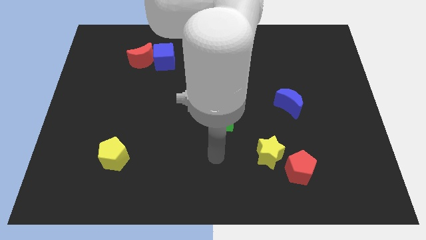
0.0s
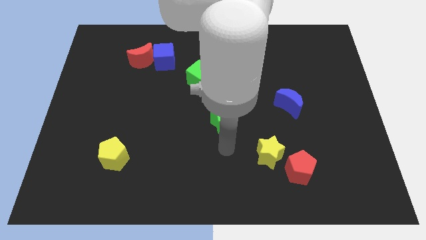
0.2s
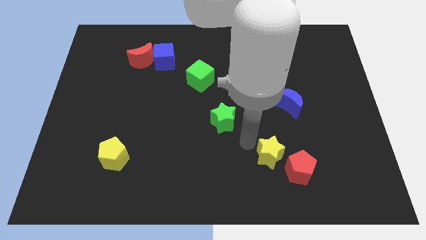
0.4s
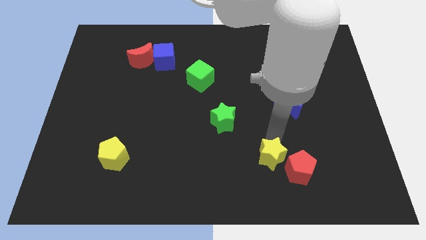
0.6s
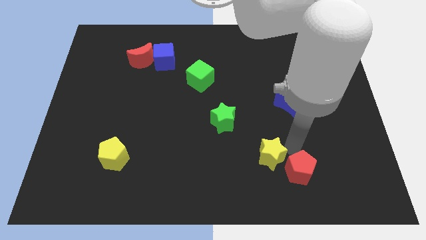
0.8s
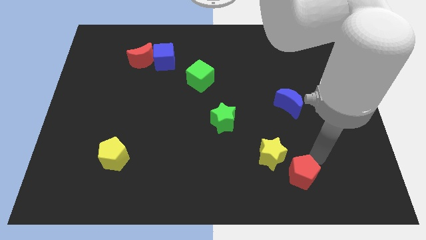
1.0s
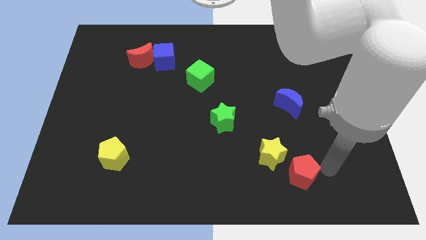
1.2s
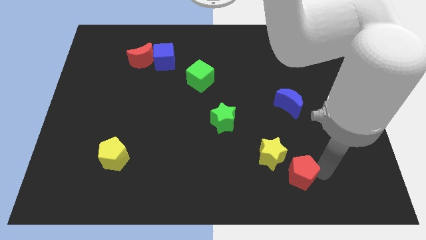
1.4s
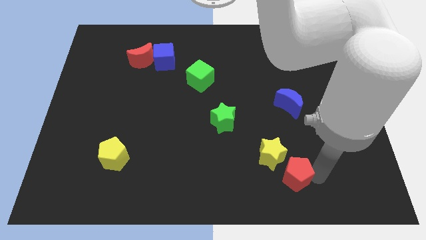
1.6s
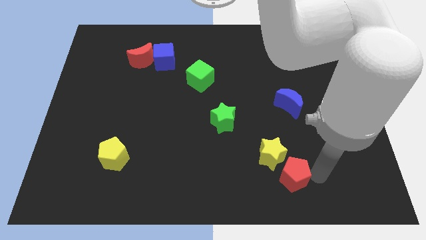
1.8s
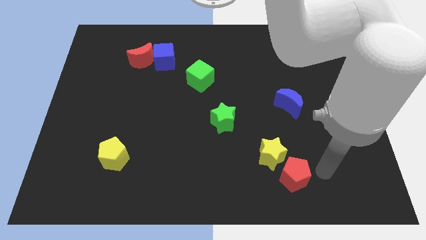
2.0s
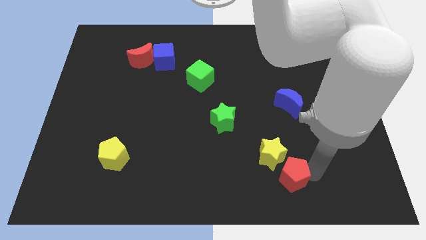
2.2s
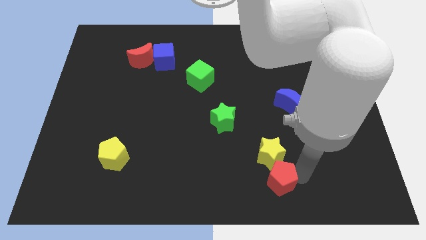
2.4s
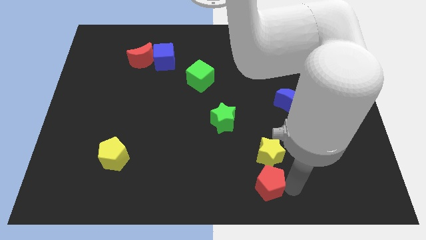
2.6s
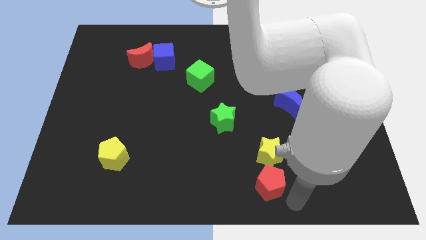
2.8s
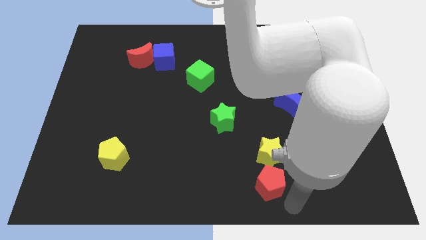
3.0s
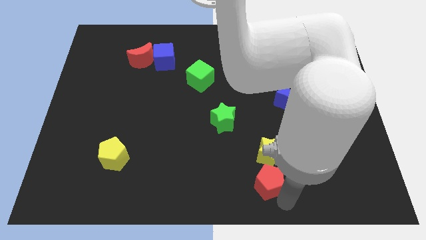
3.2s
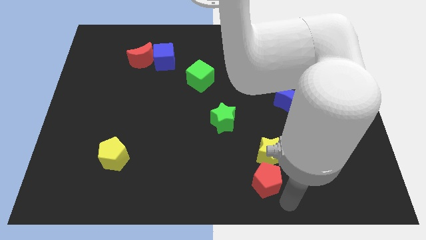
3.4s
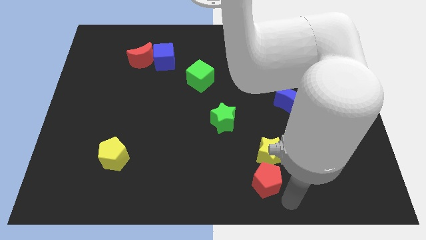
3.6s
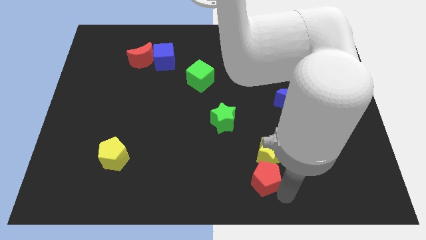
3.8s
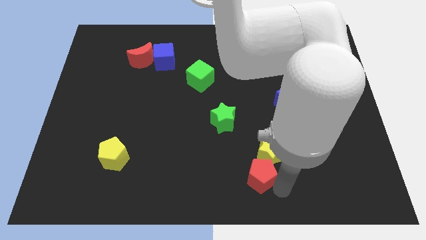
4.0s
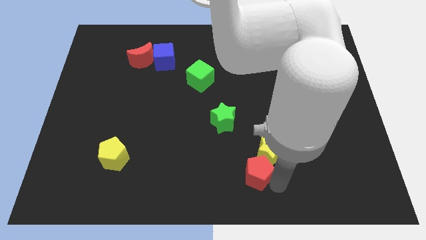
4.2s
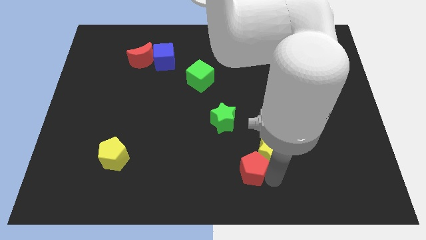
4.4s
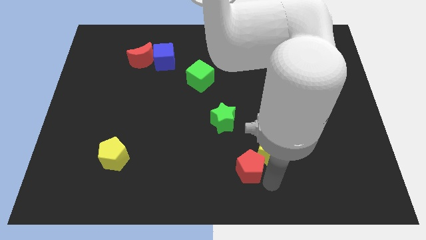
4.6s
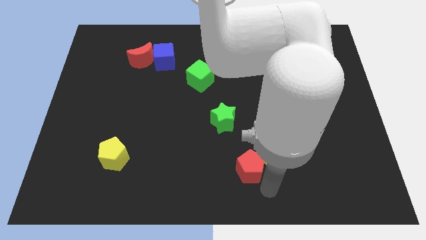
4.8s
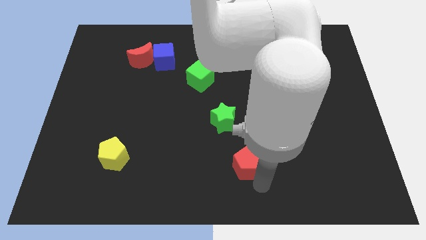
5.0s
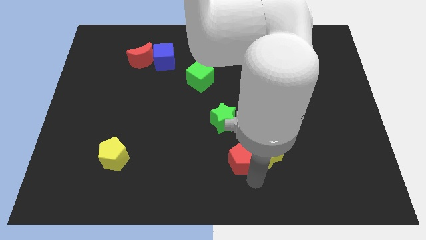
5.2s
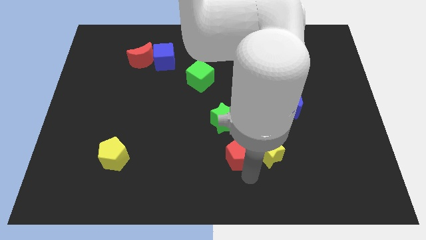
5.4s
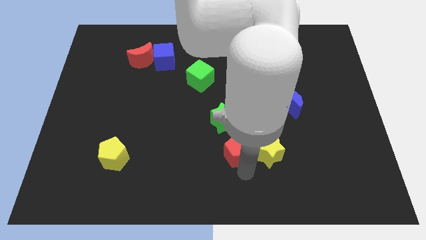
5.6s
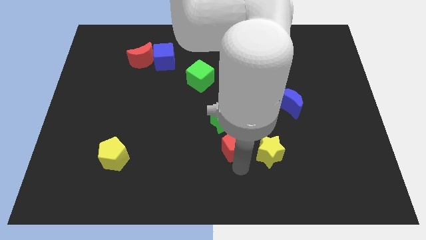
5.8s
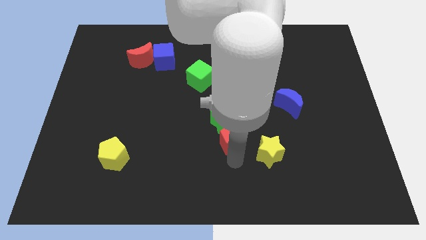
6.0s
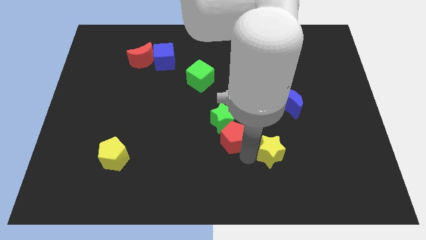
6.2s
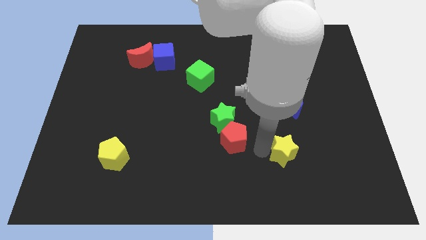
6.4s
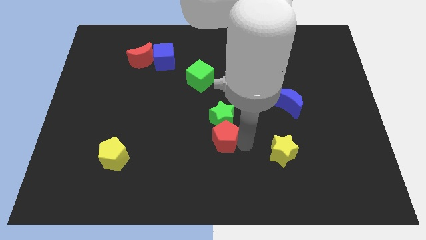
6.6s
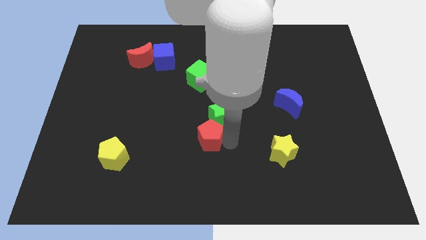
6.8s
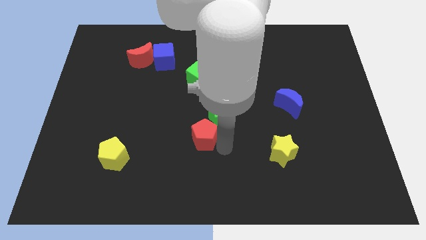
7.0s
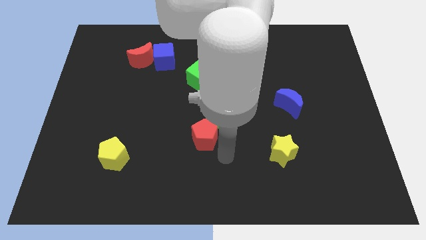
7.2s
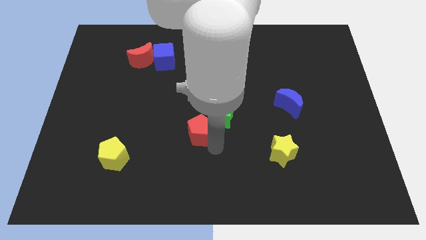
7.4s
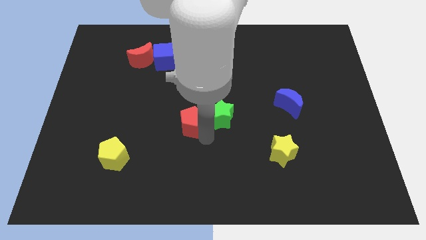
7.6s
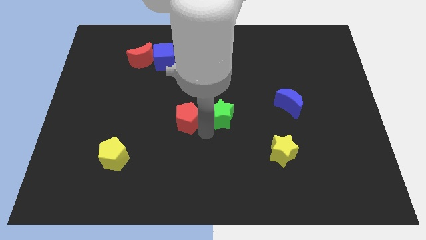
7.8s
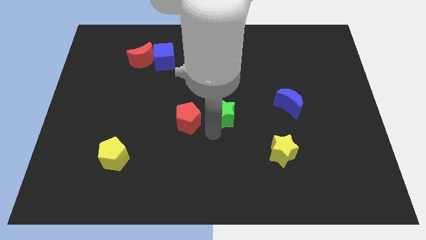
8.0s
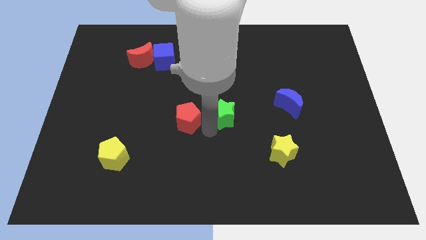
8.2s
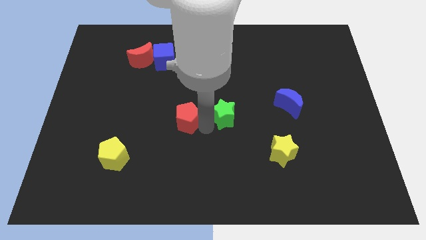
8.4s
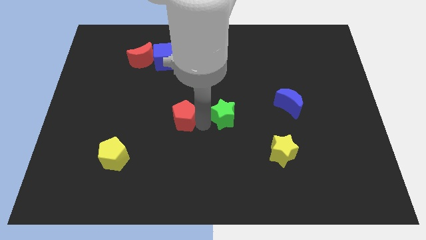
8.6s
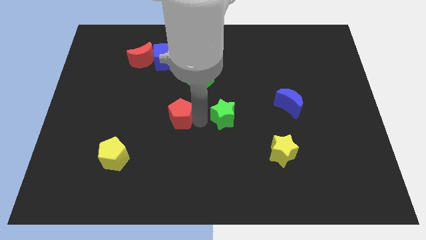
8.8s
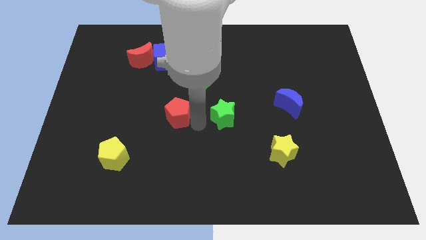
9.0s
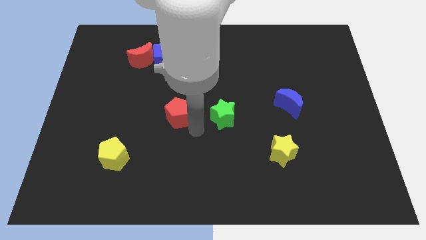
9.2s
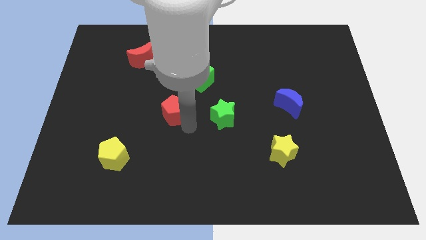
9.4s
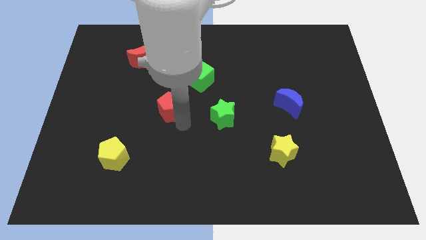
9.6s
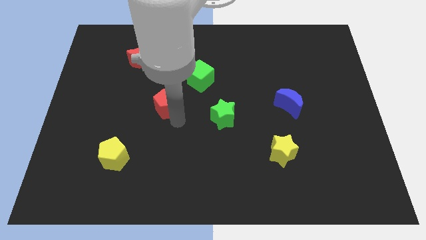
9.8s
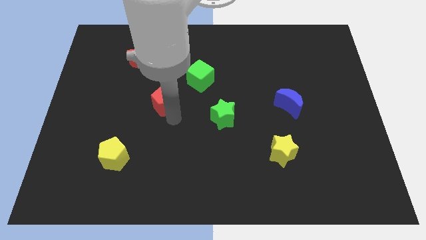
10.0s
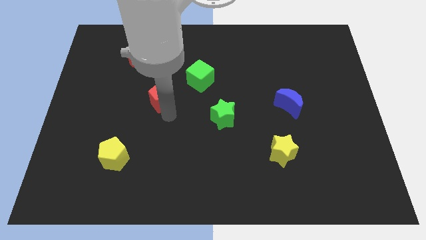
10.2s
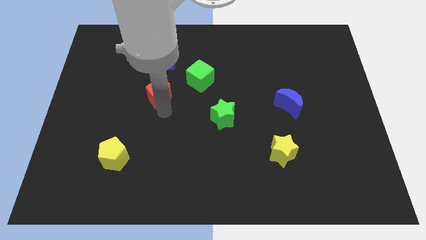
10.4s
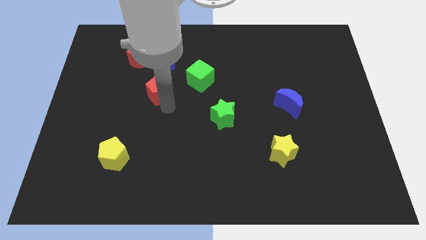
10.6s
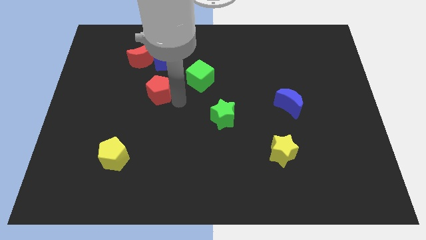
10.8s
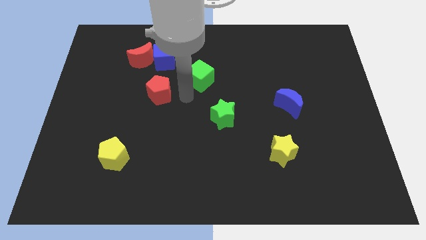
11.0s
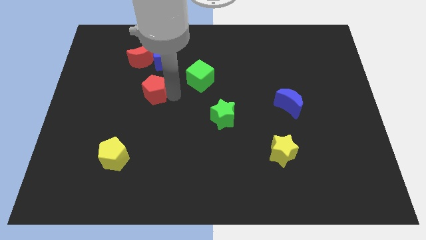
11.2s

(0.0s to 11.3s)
move the red pentagon to the bottom of the red moon

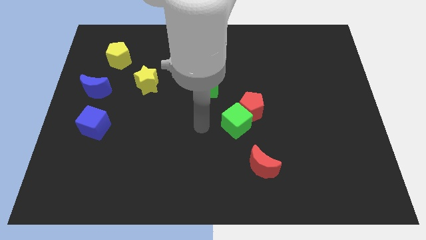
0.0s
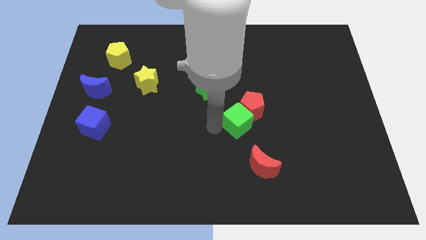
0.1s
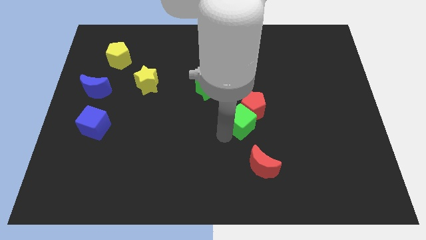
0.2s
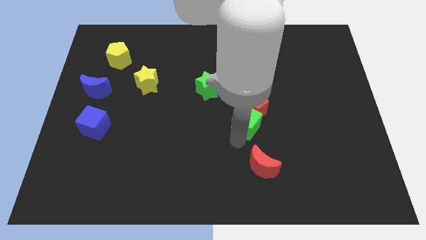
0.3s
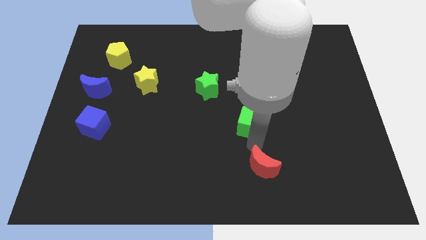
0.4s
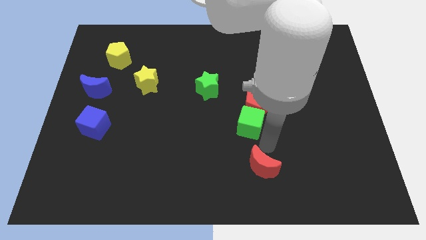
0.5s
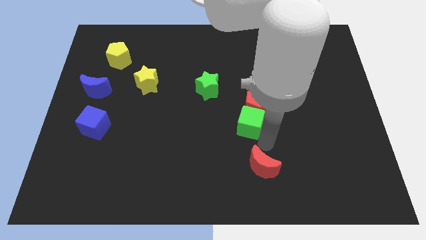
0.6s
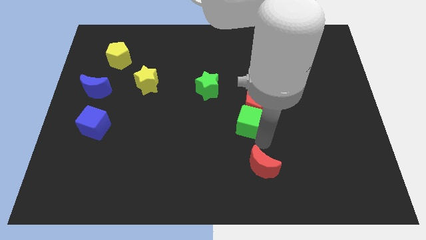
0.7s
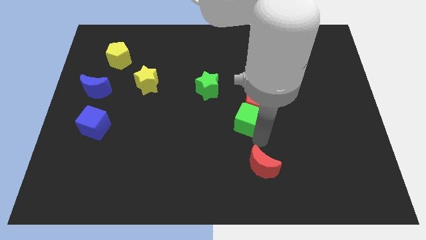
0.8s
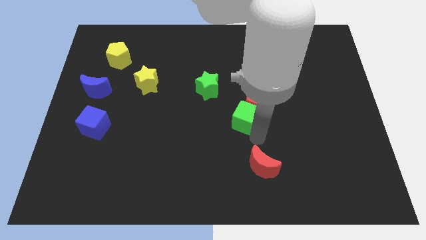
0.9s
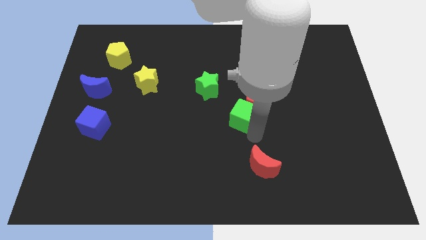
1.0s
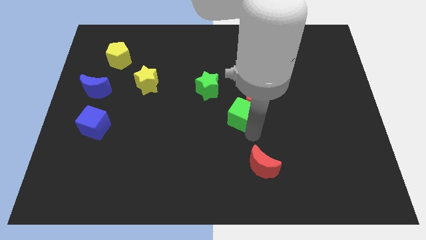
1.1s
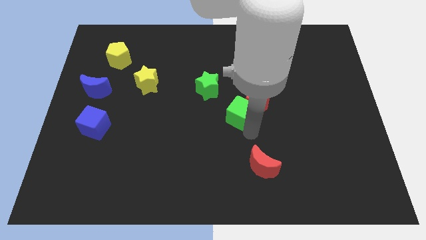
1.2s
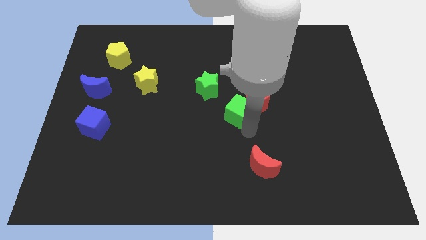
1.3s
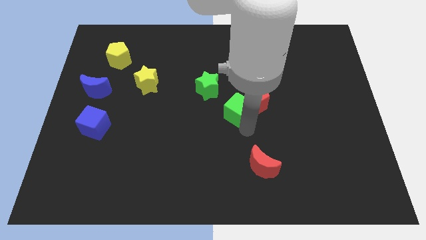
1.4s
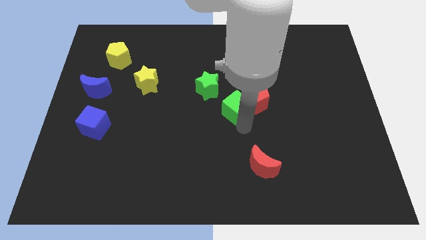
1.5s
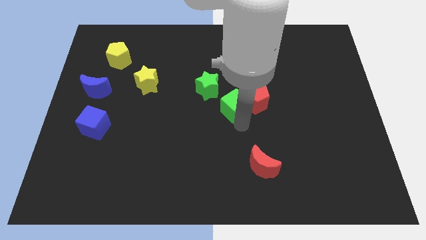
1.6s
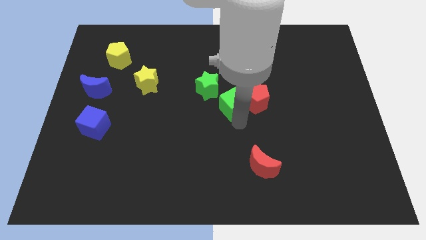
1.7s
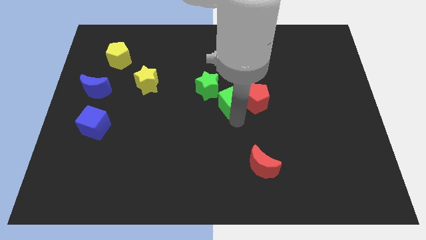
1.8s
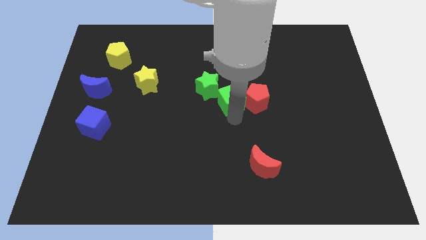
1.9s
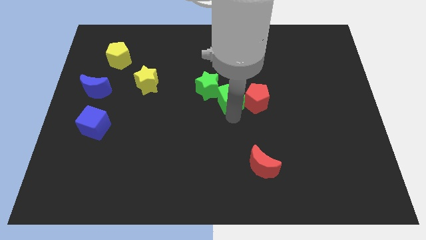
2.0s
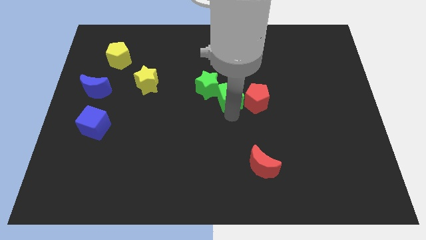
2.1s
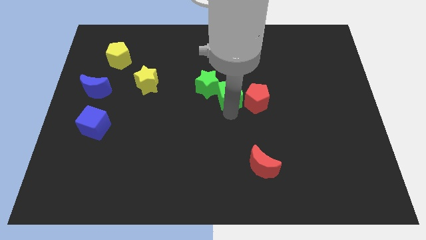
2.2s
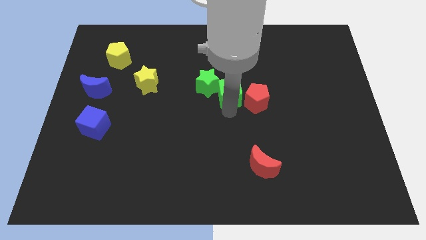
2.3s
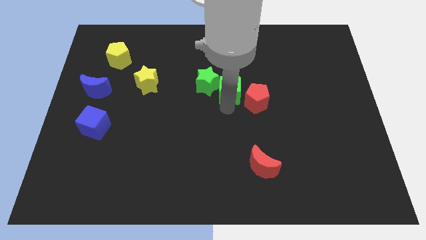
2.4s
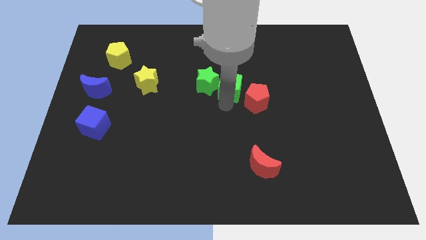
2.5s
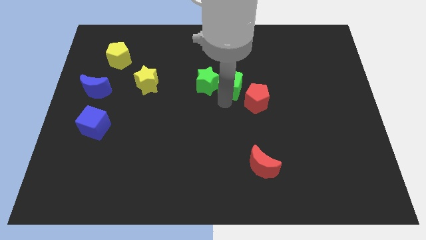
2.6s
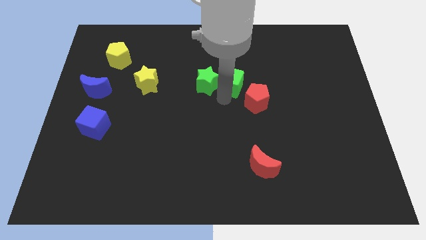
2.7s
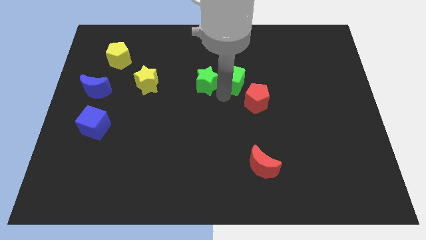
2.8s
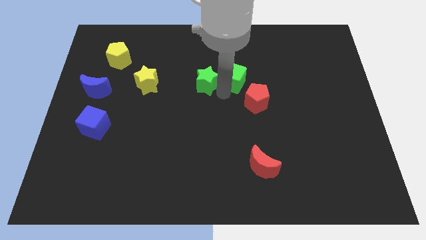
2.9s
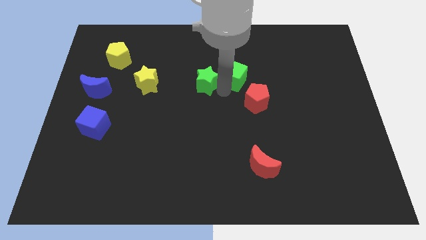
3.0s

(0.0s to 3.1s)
move the green cube above the red pentagon
